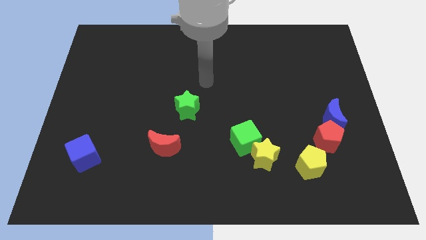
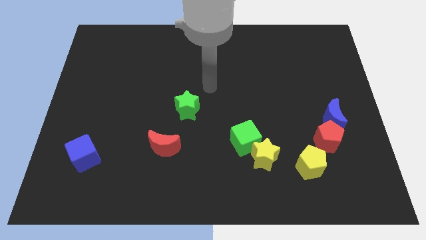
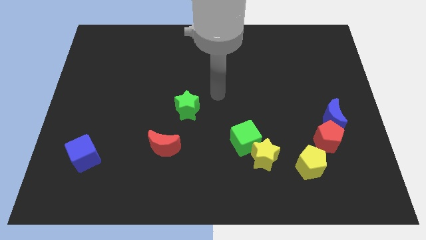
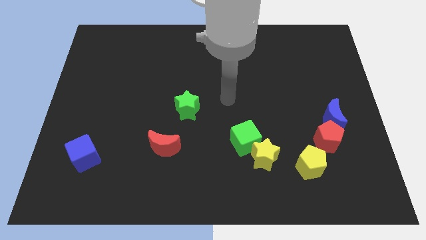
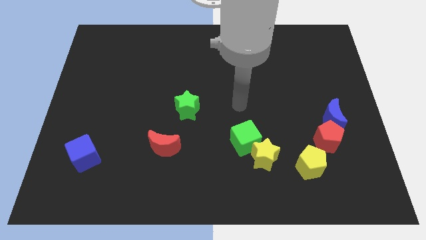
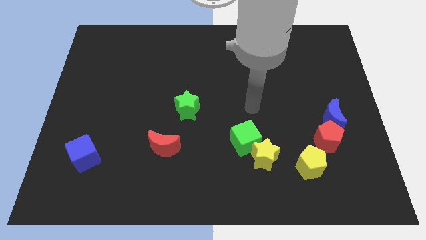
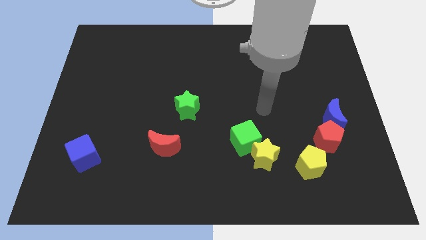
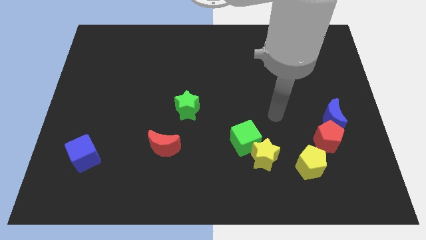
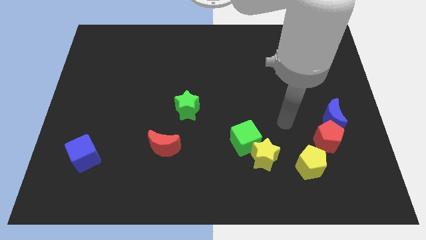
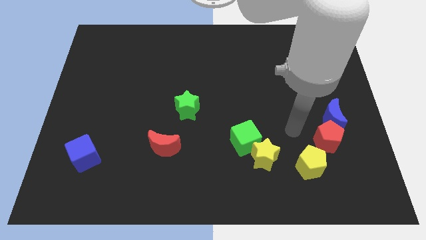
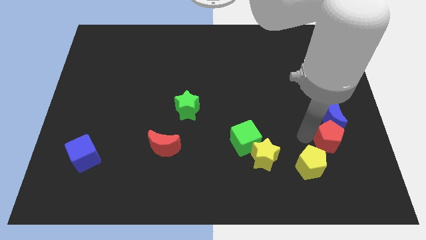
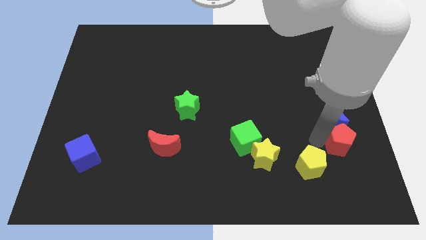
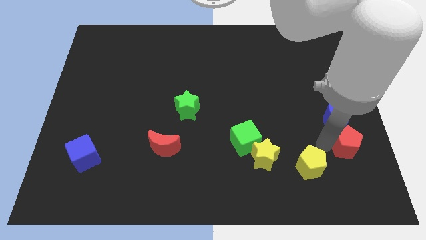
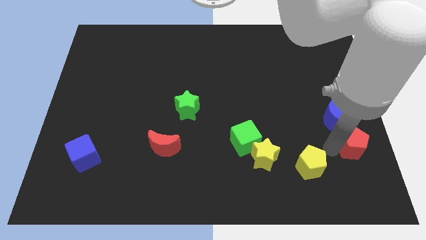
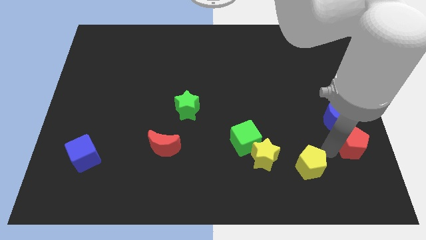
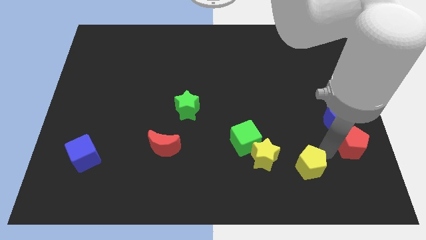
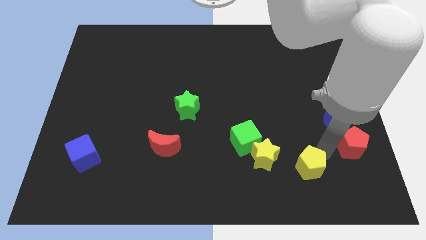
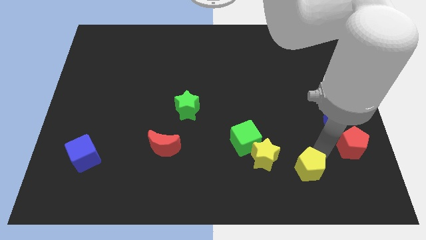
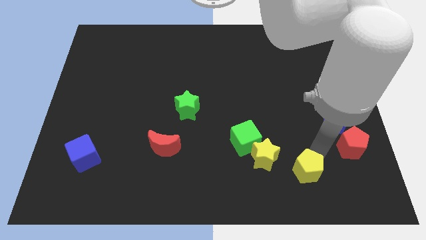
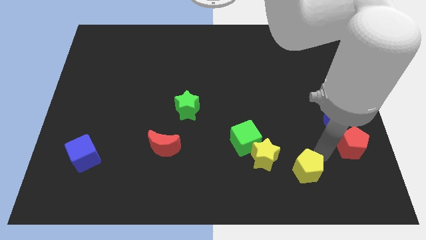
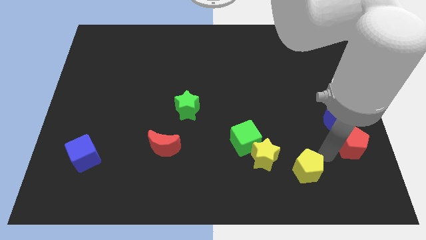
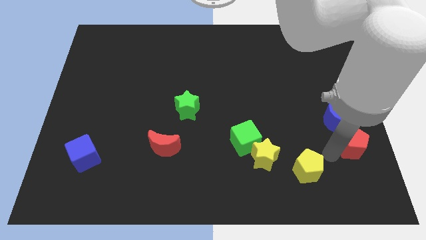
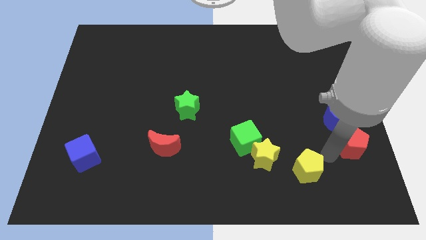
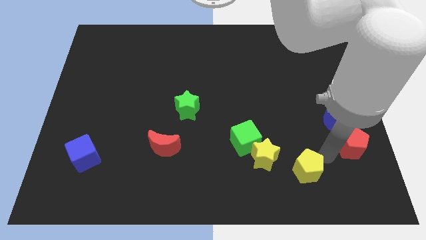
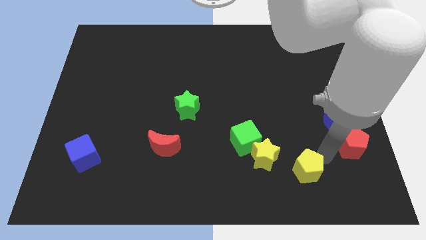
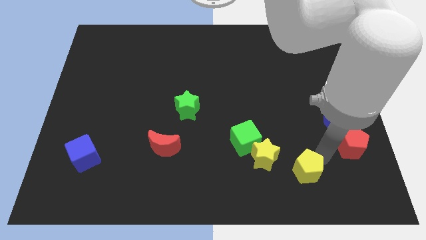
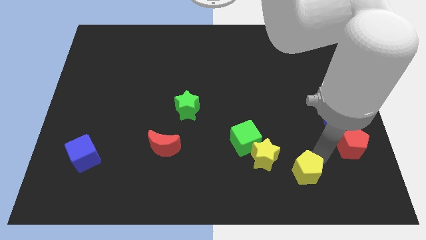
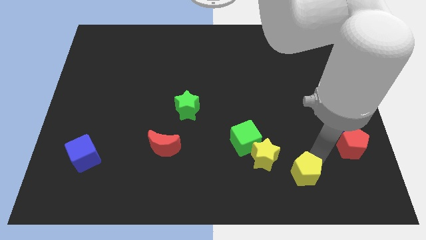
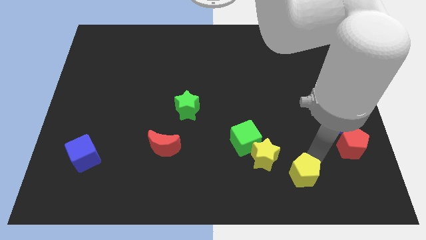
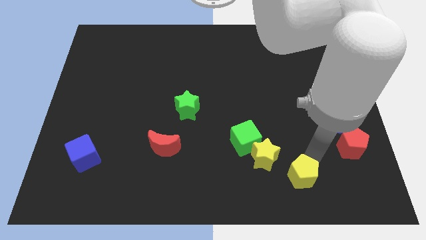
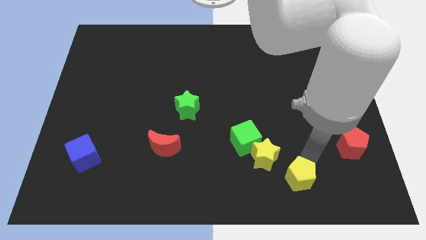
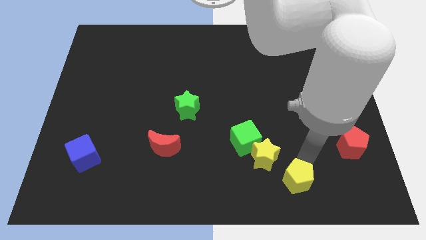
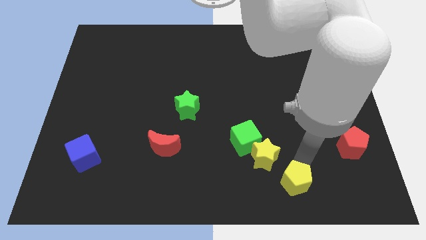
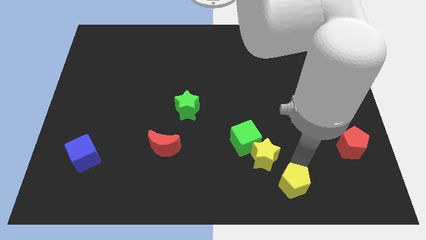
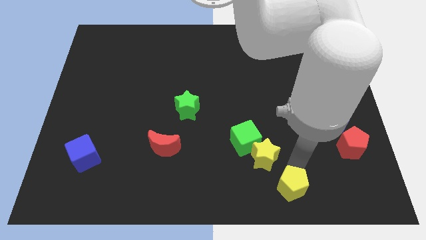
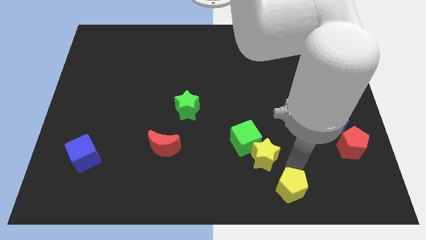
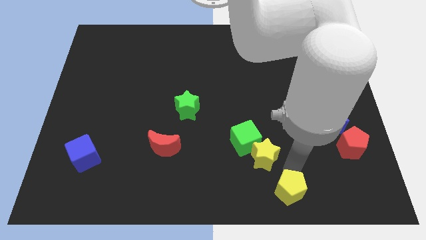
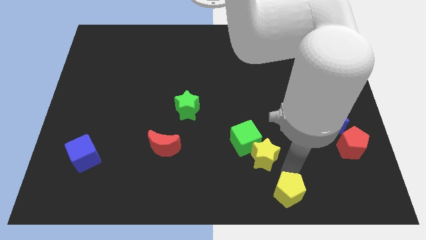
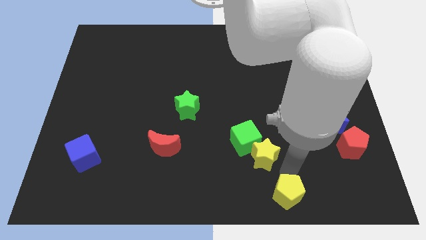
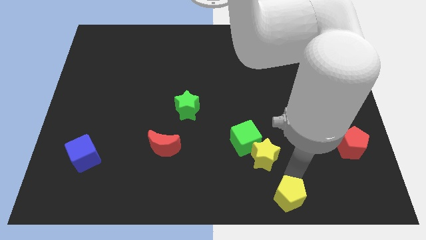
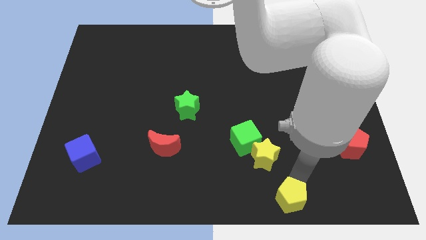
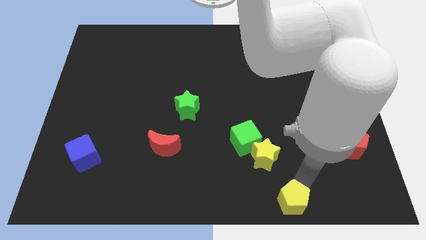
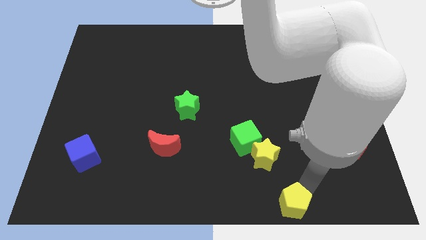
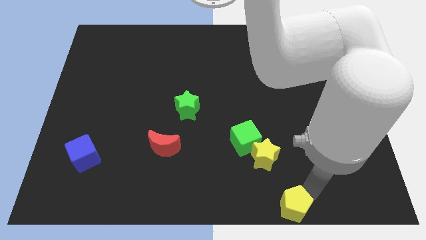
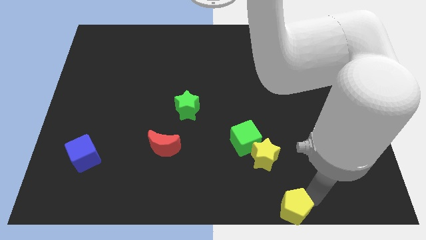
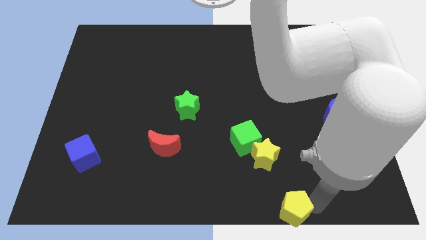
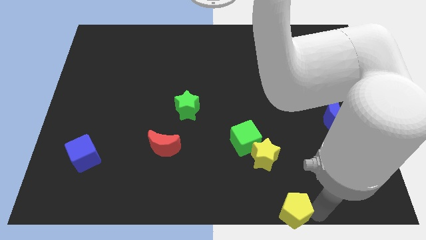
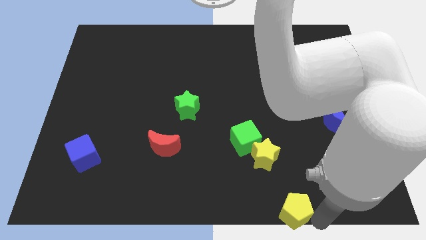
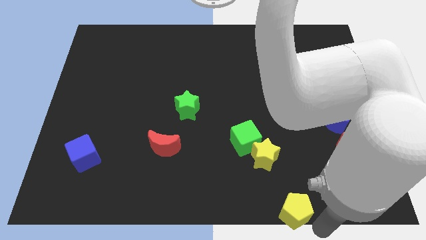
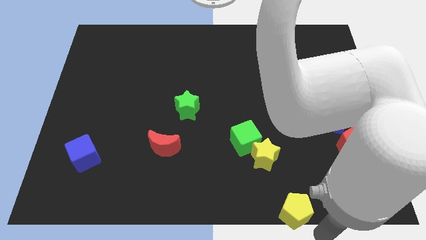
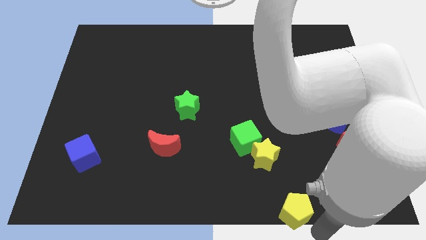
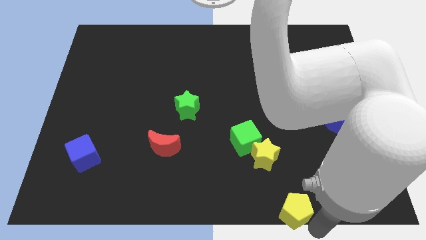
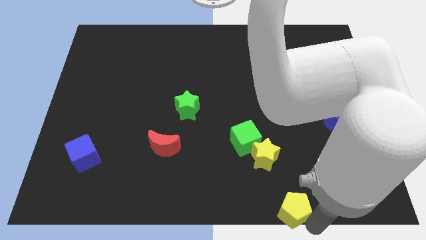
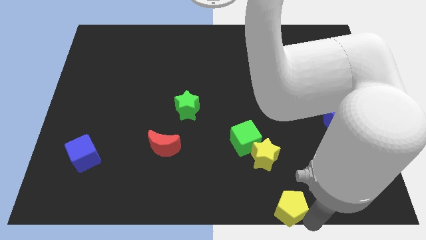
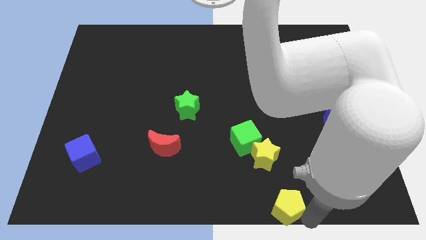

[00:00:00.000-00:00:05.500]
put the yellow pentagon to the bottom

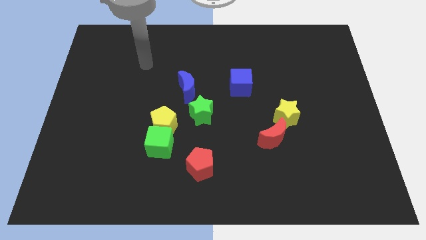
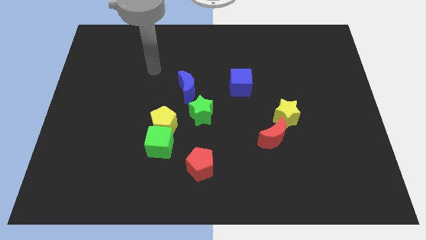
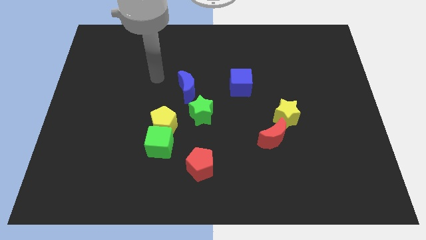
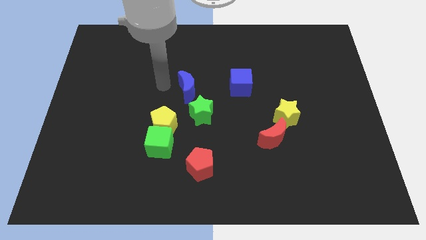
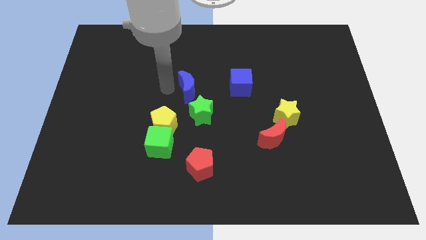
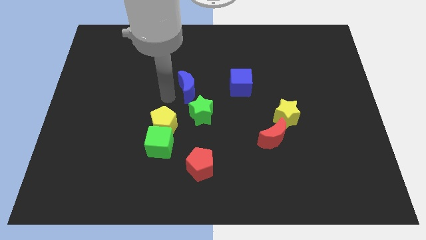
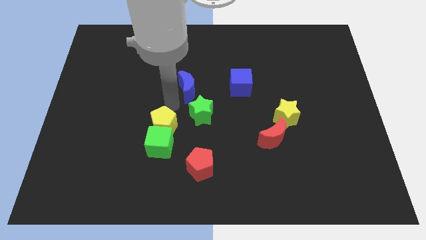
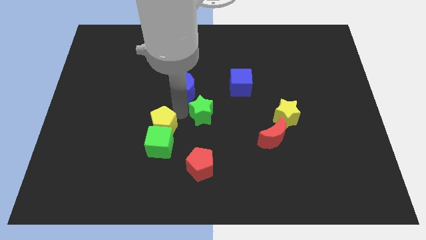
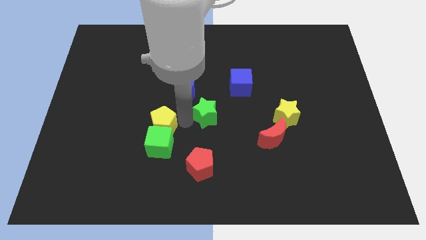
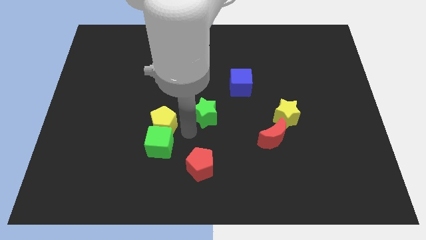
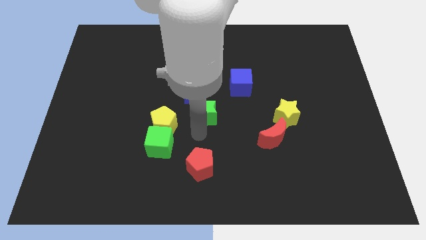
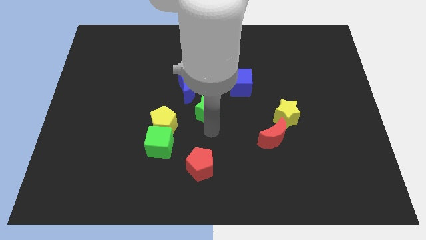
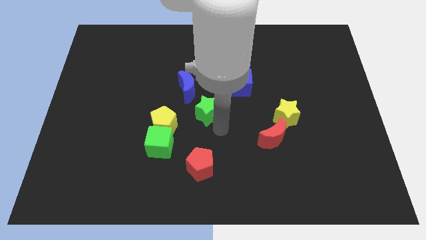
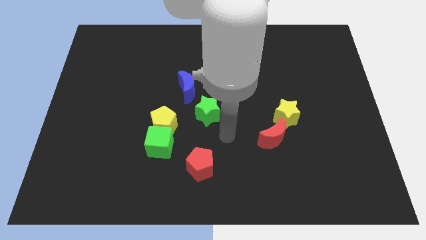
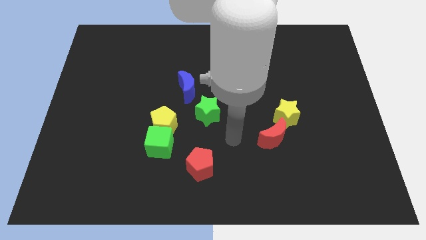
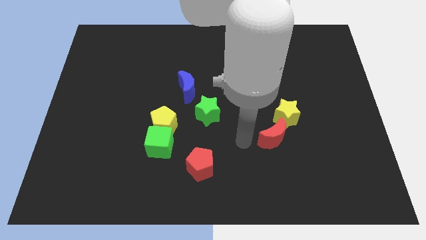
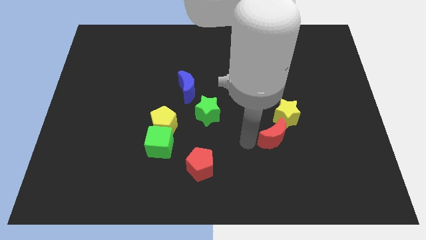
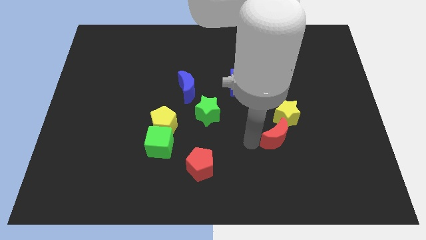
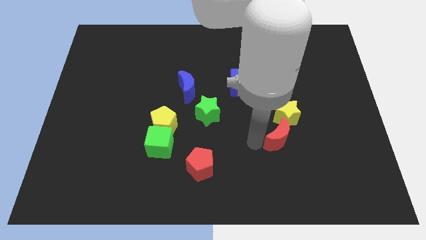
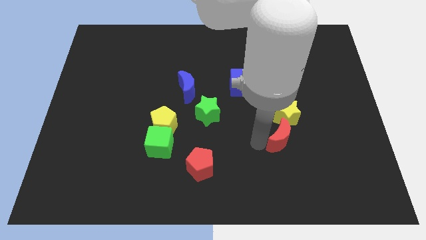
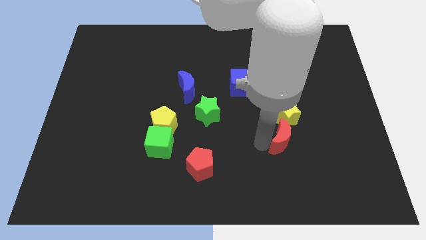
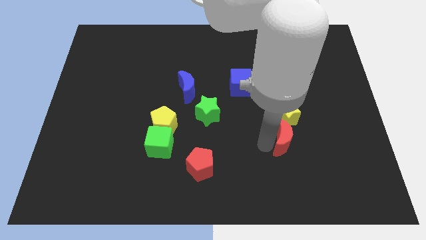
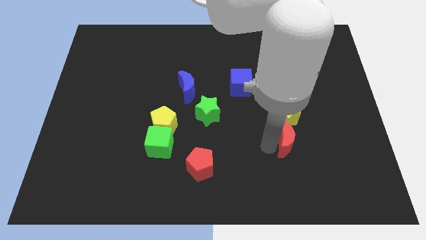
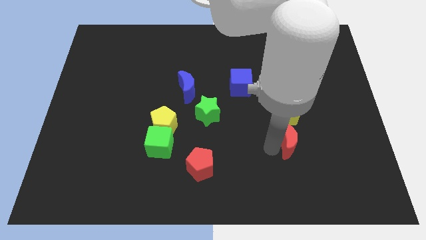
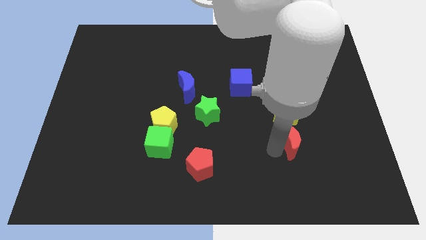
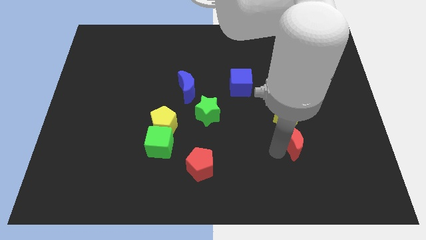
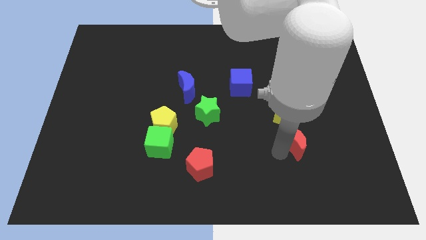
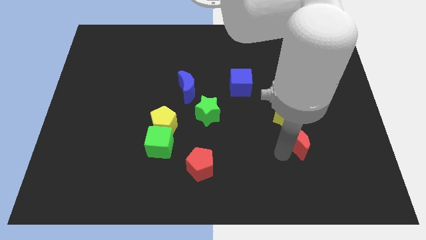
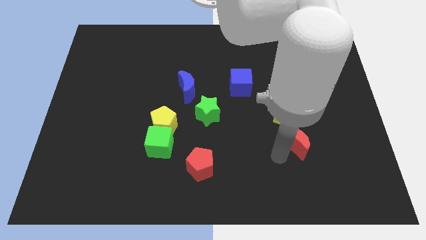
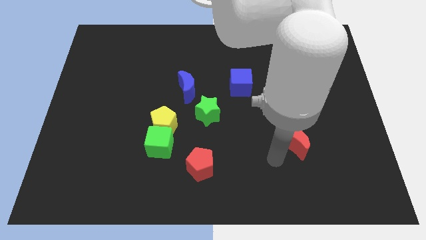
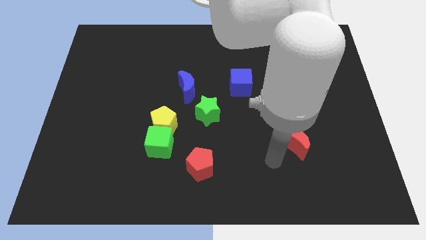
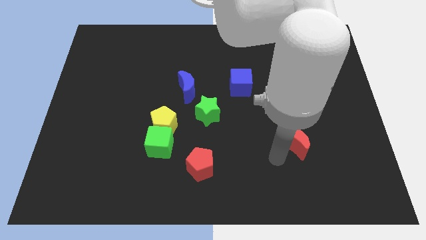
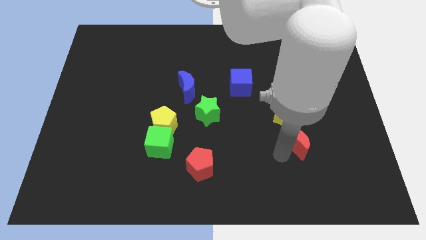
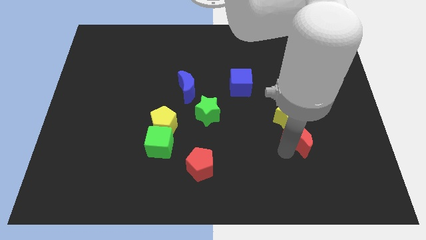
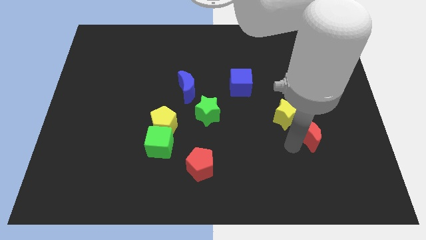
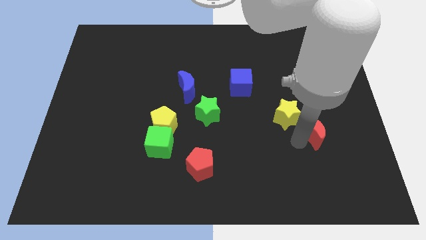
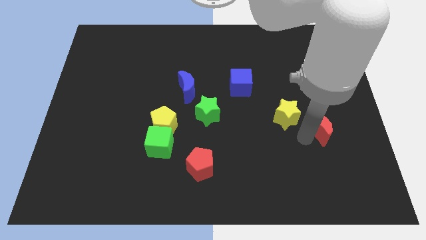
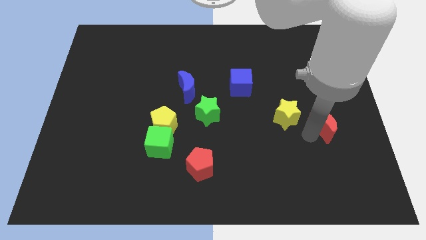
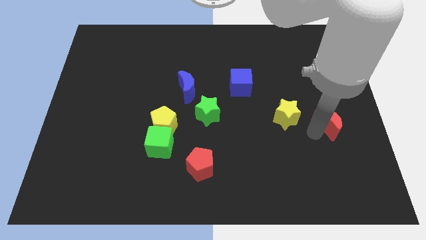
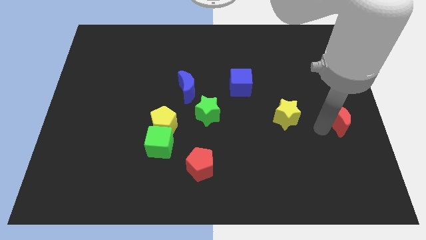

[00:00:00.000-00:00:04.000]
push the red moon to the right side of the board
